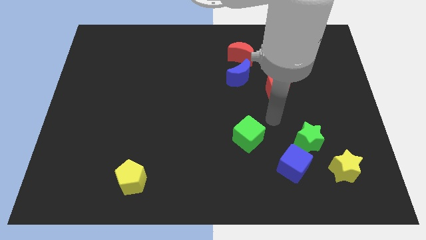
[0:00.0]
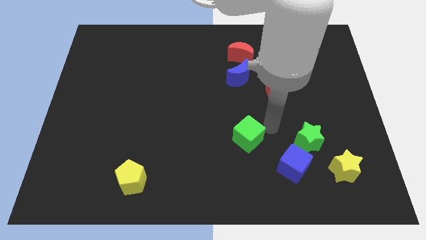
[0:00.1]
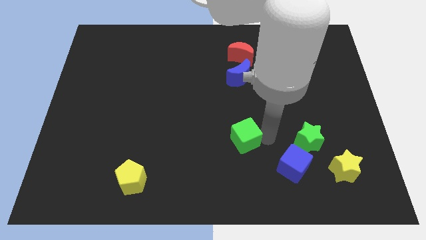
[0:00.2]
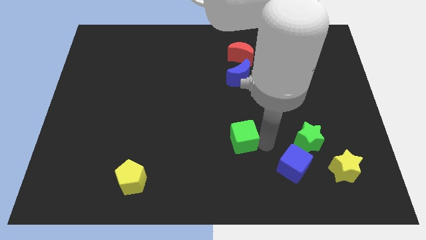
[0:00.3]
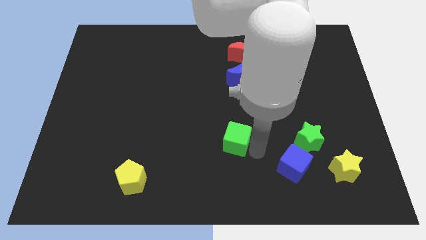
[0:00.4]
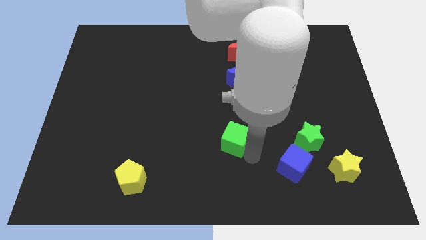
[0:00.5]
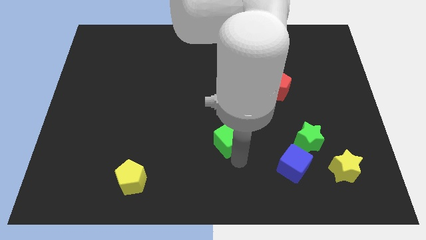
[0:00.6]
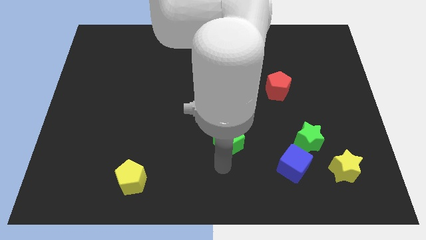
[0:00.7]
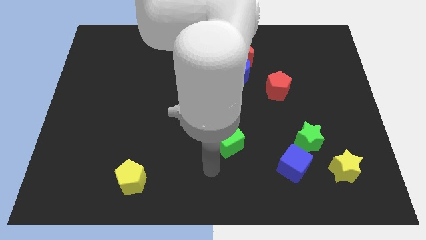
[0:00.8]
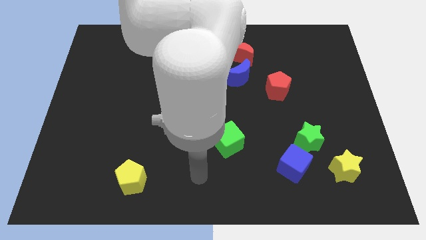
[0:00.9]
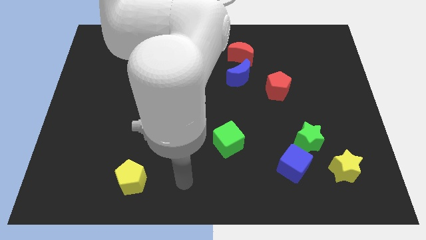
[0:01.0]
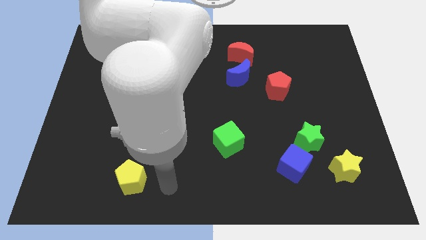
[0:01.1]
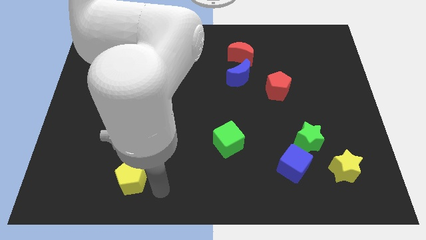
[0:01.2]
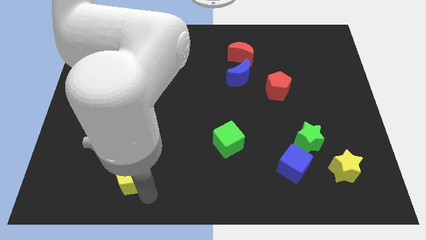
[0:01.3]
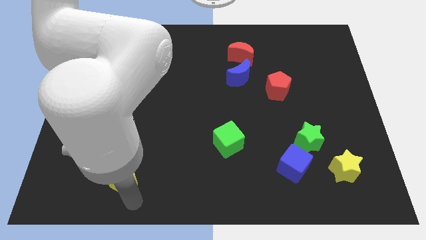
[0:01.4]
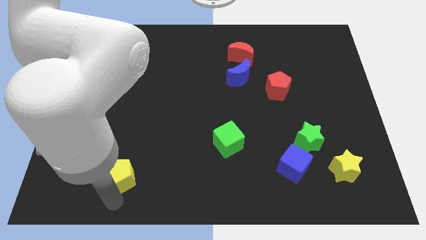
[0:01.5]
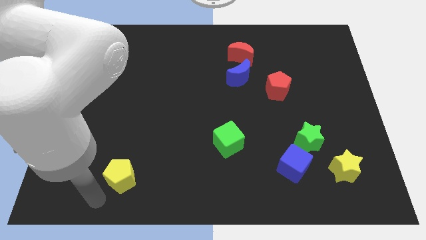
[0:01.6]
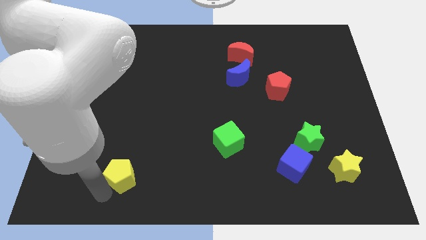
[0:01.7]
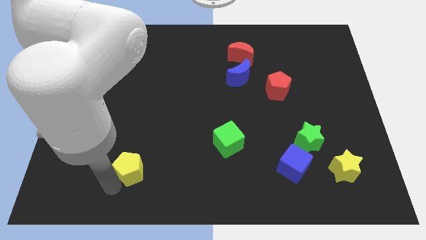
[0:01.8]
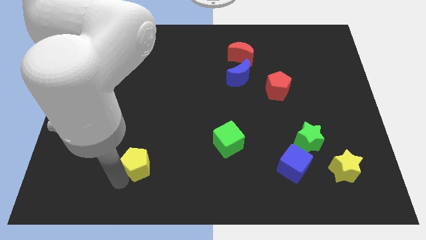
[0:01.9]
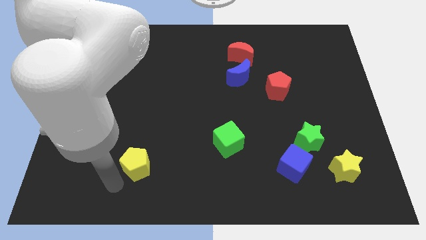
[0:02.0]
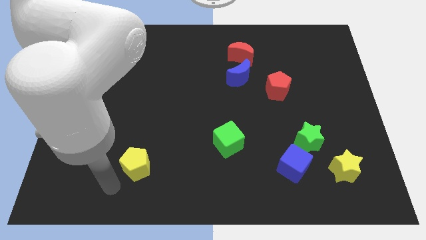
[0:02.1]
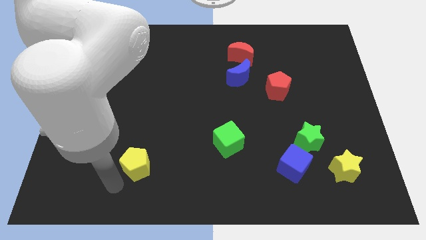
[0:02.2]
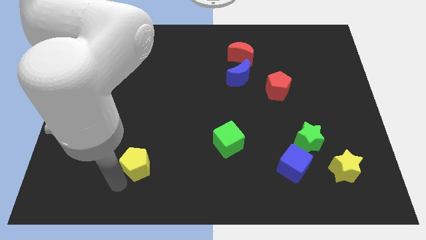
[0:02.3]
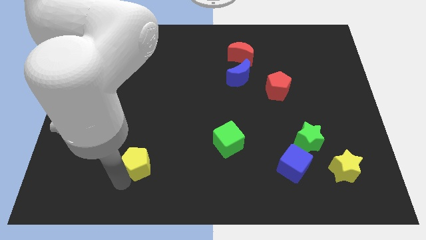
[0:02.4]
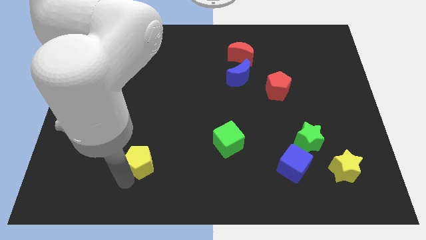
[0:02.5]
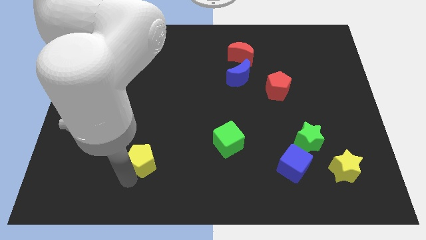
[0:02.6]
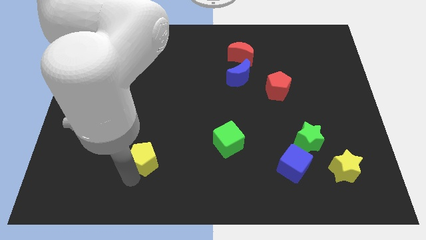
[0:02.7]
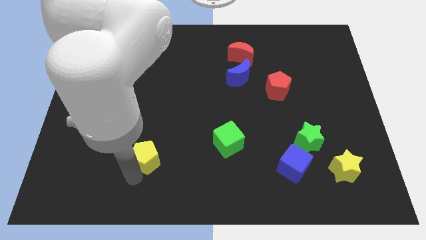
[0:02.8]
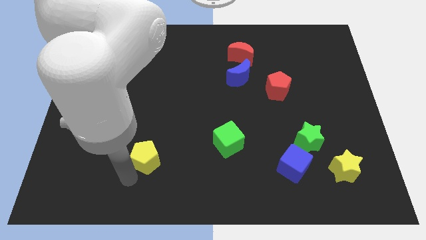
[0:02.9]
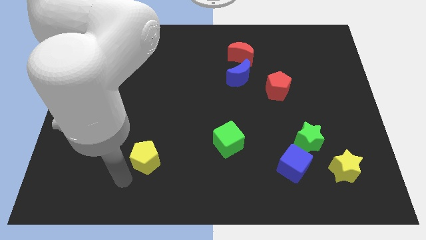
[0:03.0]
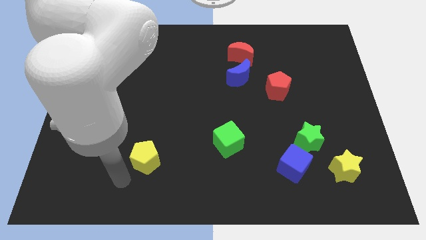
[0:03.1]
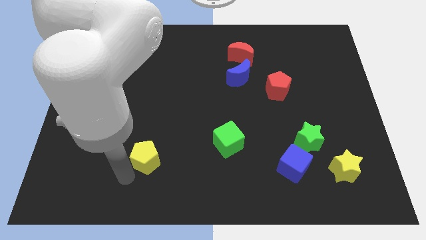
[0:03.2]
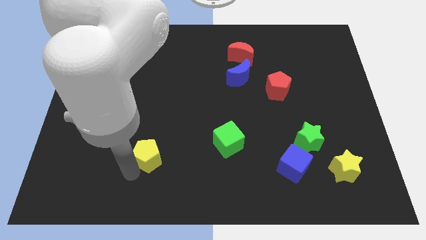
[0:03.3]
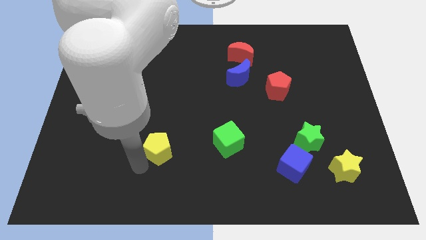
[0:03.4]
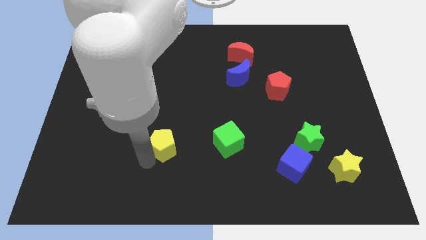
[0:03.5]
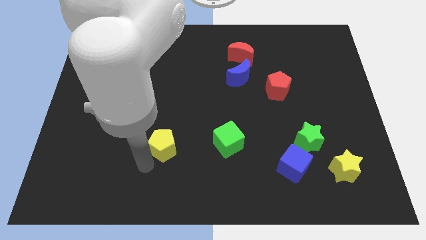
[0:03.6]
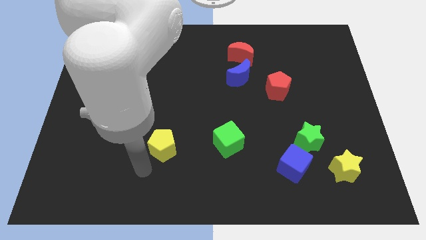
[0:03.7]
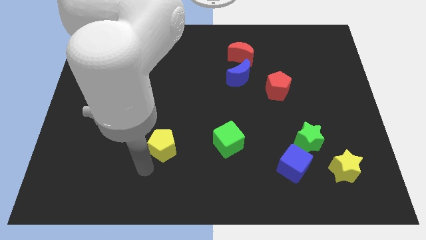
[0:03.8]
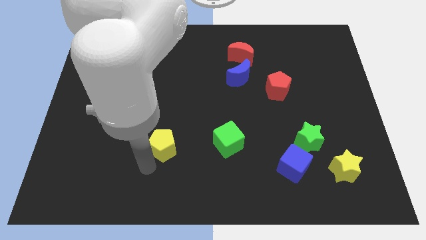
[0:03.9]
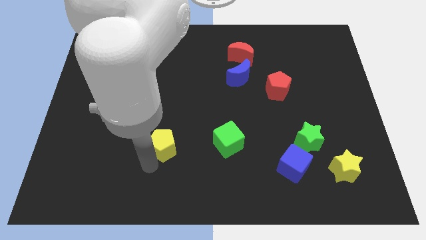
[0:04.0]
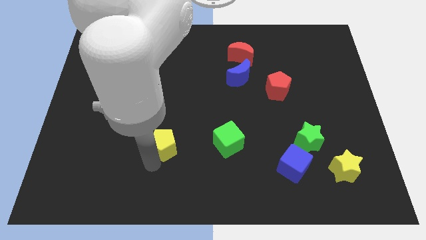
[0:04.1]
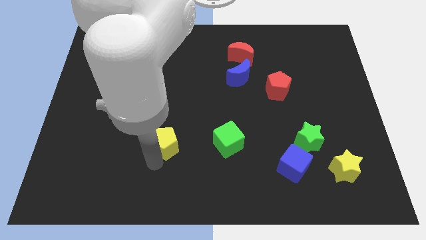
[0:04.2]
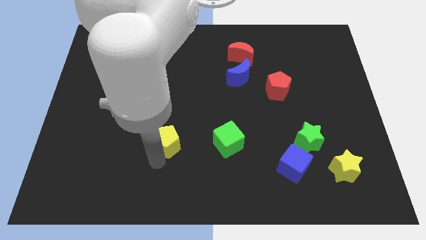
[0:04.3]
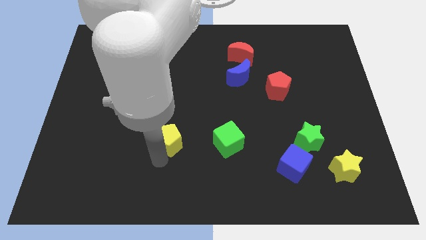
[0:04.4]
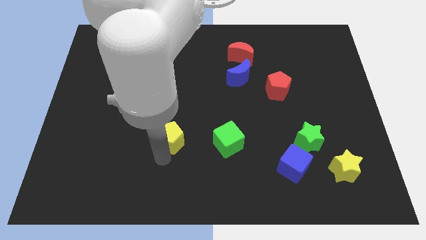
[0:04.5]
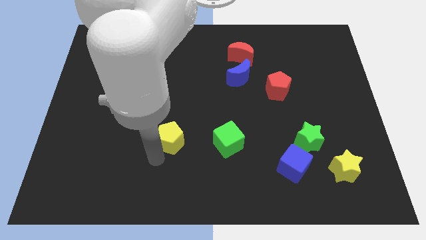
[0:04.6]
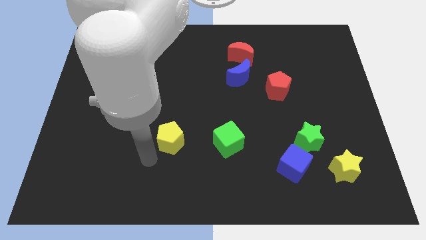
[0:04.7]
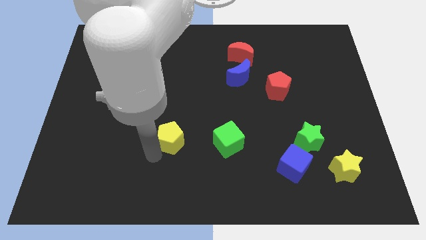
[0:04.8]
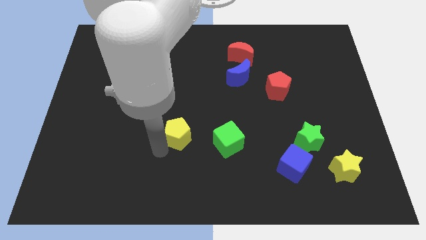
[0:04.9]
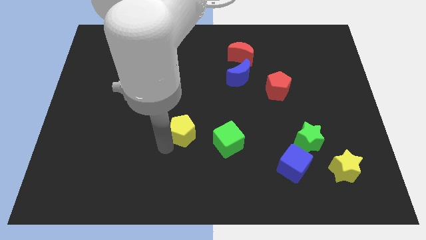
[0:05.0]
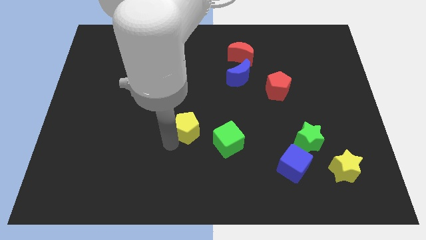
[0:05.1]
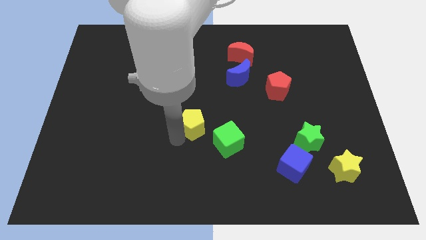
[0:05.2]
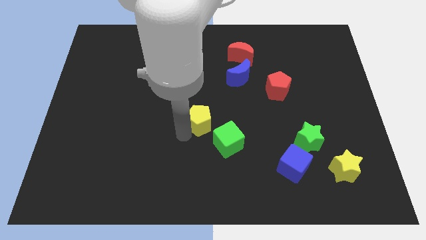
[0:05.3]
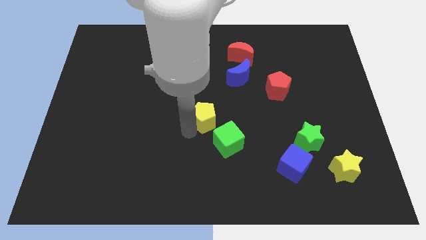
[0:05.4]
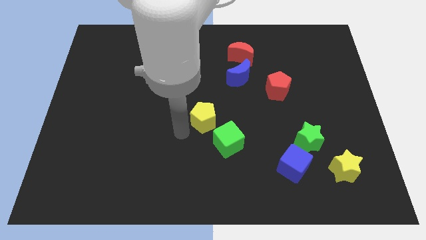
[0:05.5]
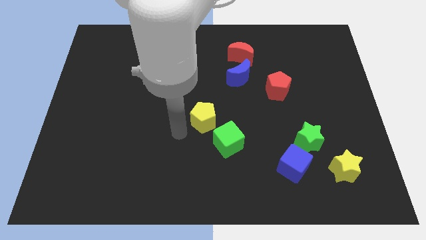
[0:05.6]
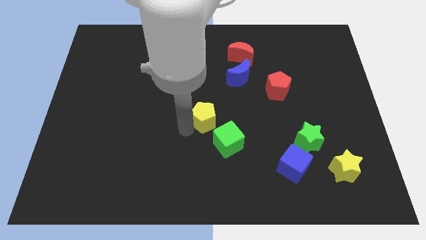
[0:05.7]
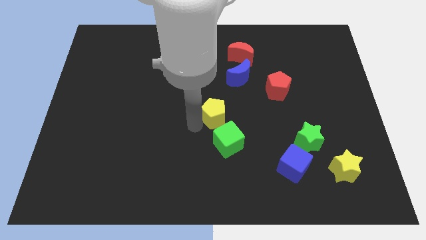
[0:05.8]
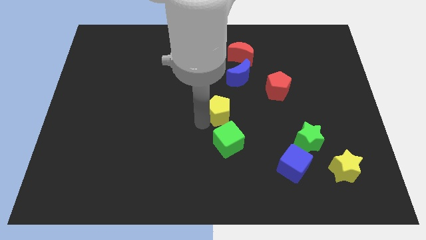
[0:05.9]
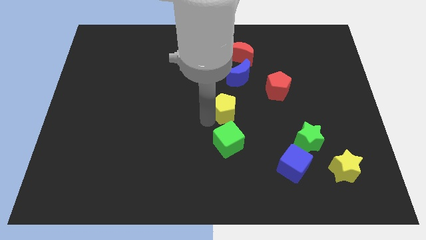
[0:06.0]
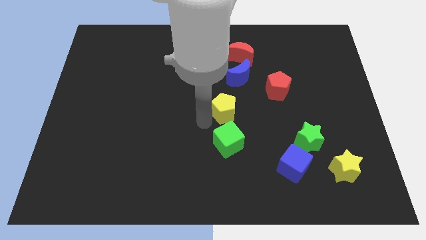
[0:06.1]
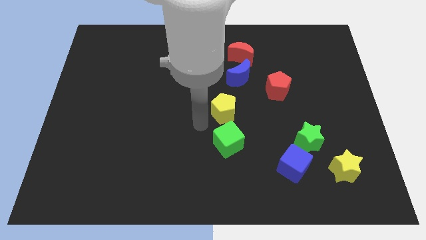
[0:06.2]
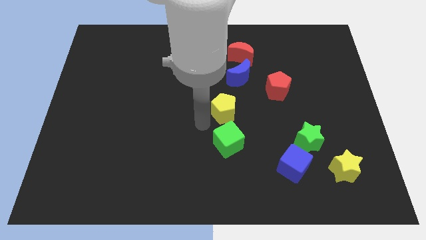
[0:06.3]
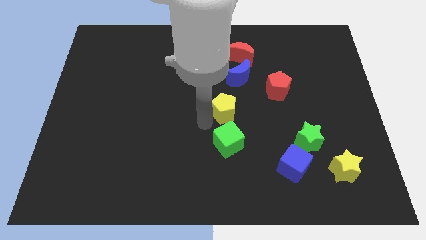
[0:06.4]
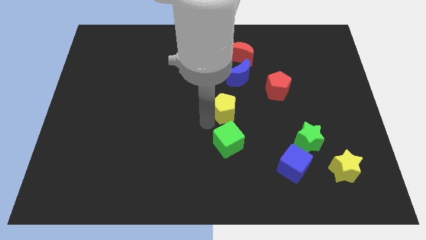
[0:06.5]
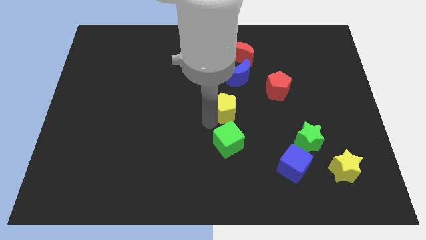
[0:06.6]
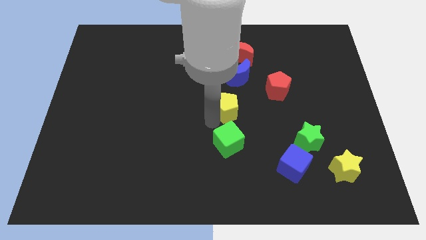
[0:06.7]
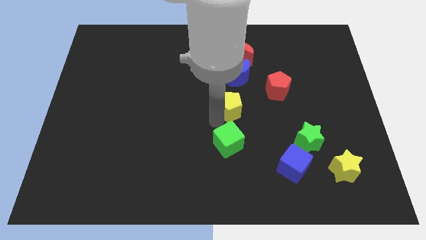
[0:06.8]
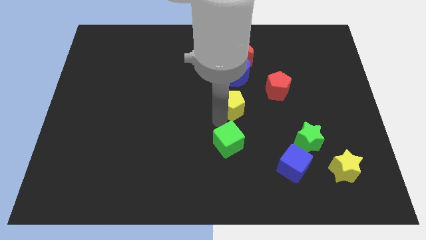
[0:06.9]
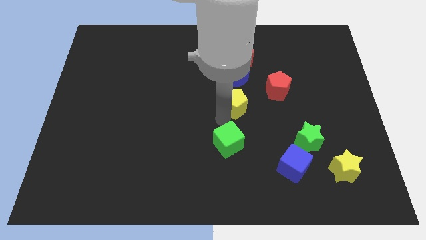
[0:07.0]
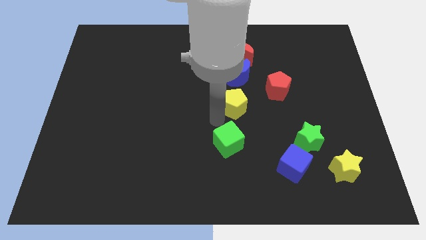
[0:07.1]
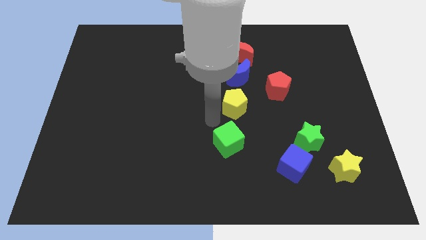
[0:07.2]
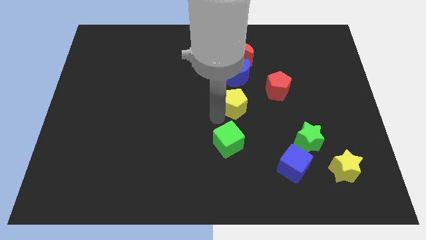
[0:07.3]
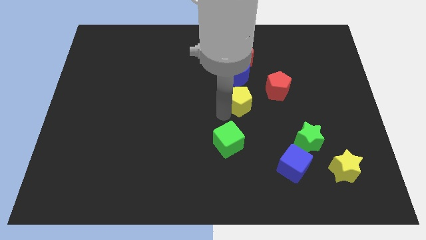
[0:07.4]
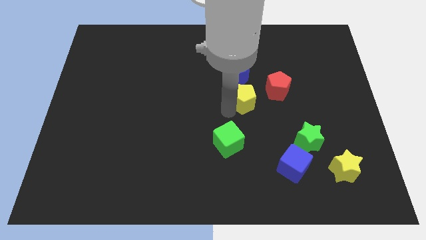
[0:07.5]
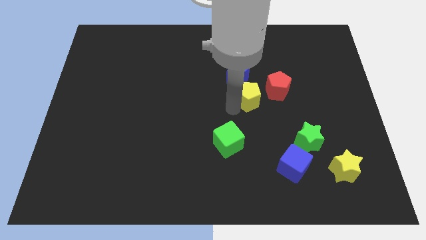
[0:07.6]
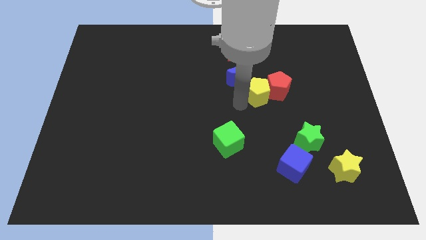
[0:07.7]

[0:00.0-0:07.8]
put the yellow pentagon close to the red pentagon
